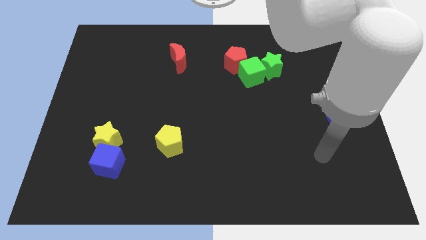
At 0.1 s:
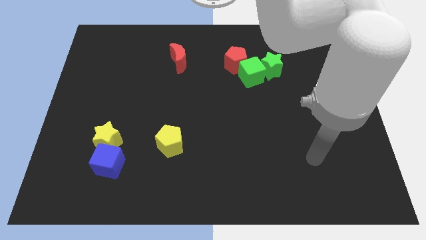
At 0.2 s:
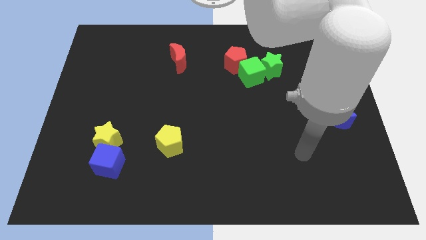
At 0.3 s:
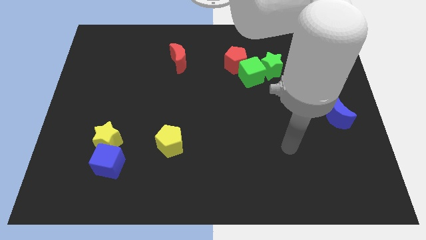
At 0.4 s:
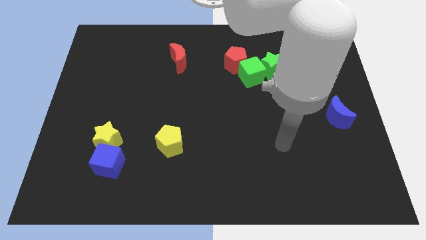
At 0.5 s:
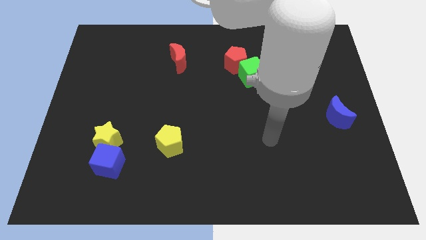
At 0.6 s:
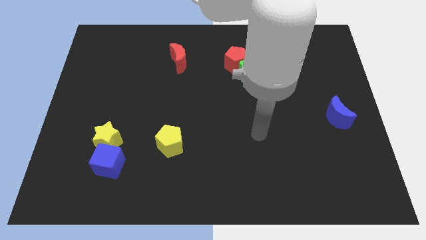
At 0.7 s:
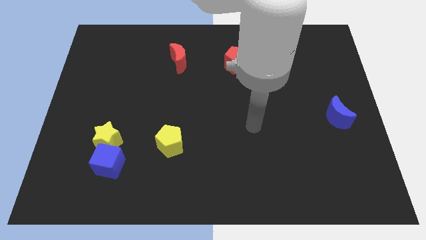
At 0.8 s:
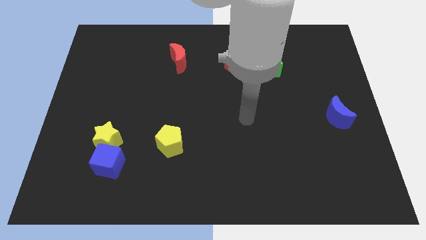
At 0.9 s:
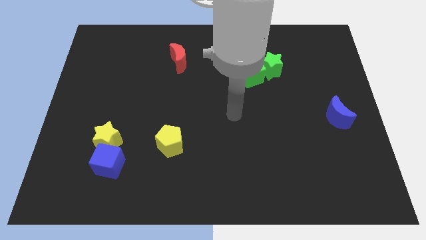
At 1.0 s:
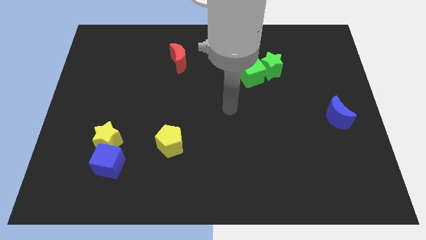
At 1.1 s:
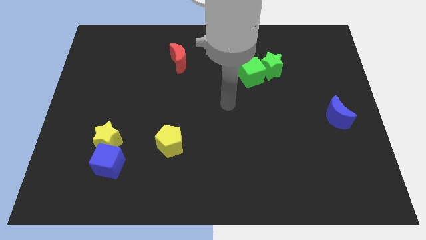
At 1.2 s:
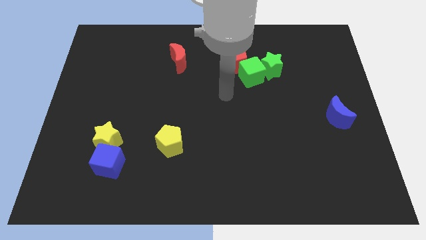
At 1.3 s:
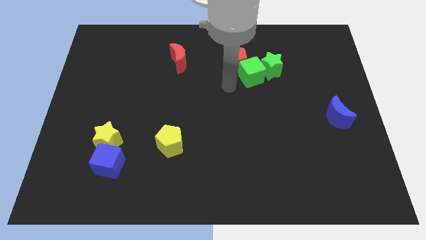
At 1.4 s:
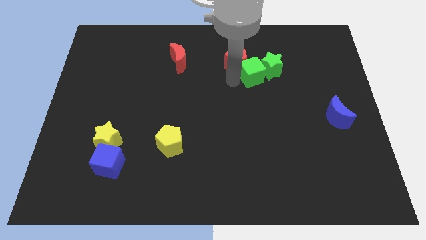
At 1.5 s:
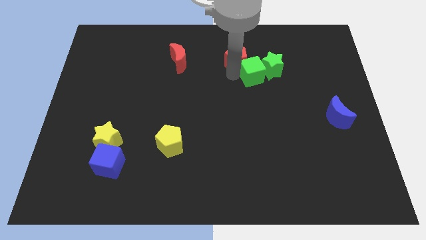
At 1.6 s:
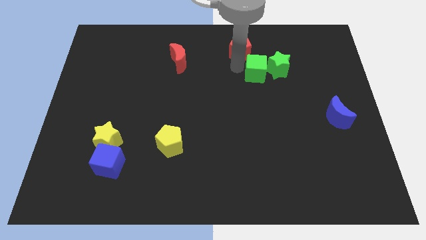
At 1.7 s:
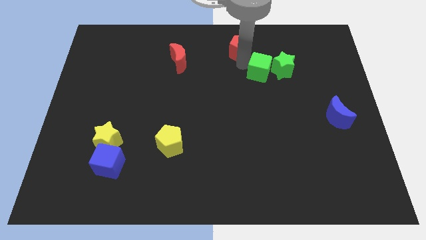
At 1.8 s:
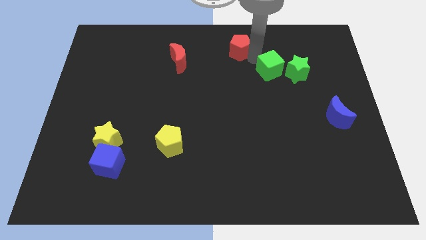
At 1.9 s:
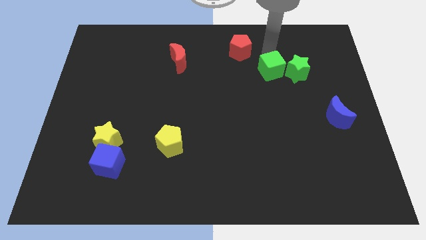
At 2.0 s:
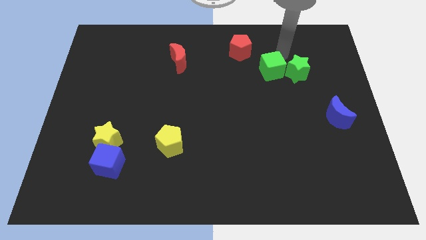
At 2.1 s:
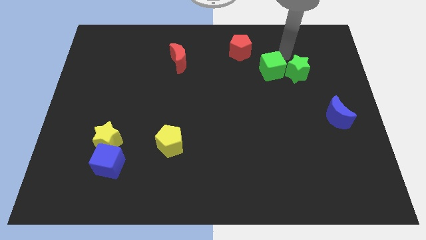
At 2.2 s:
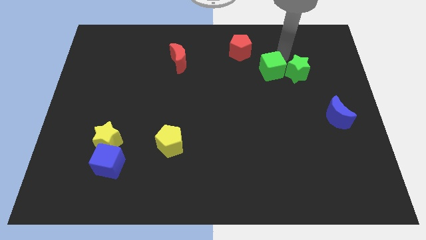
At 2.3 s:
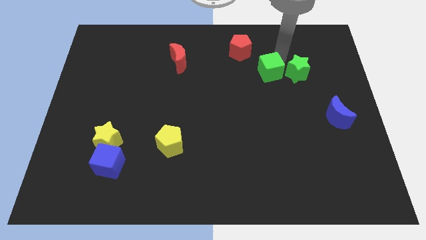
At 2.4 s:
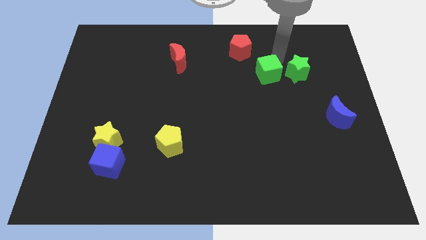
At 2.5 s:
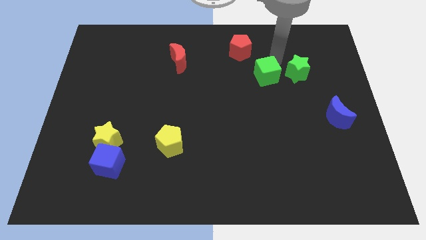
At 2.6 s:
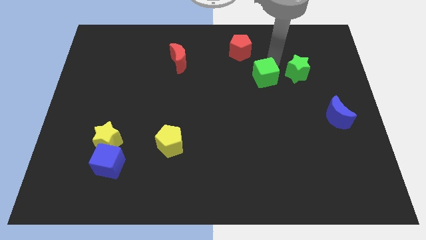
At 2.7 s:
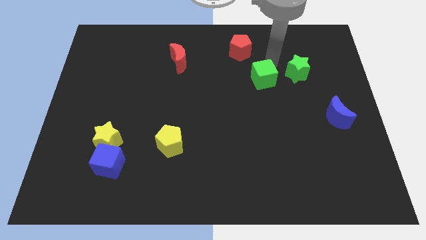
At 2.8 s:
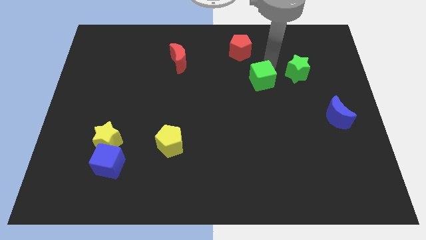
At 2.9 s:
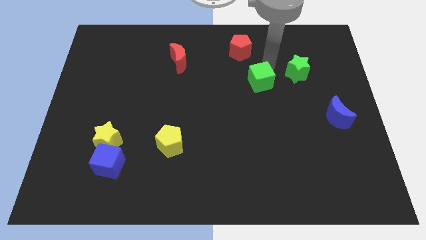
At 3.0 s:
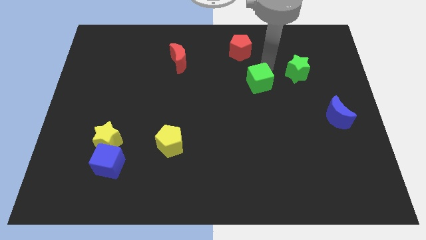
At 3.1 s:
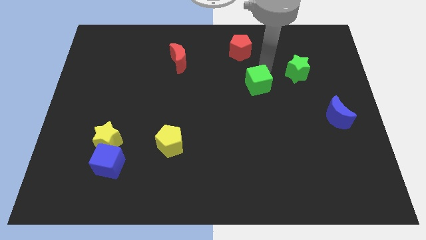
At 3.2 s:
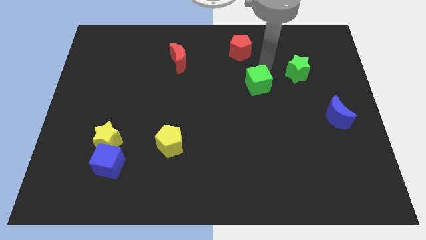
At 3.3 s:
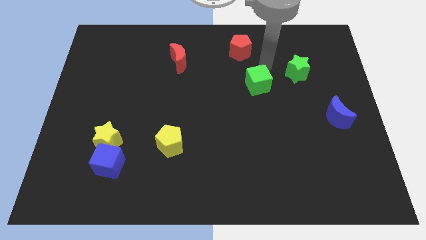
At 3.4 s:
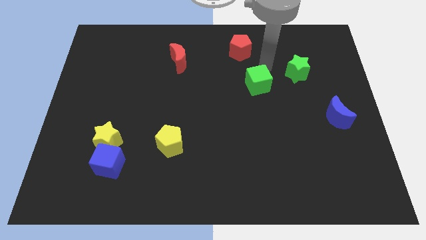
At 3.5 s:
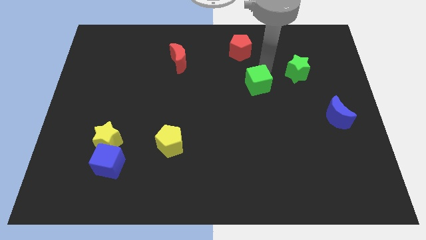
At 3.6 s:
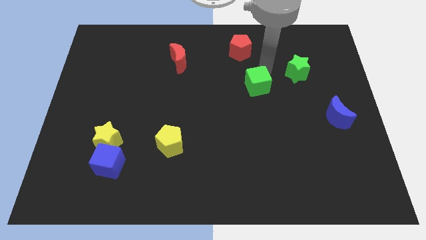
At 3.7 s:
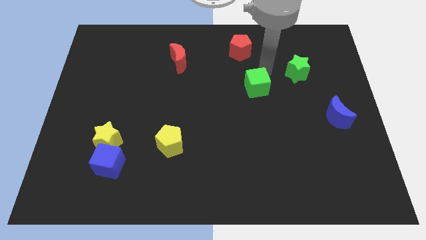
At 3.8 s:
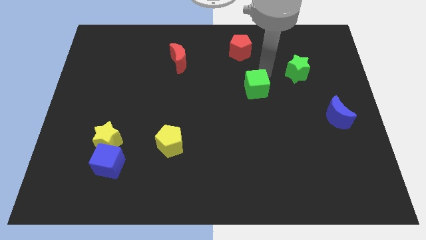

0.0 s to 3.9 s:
move the green cube away from the green star and red pentagon

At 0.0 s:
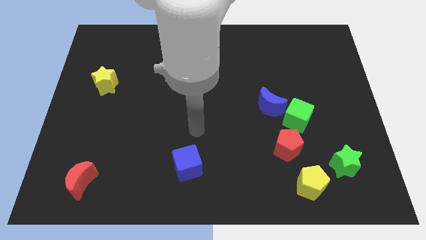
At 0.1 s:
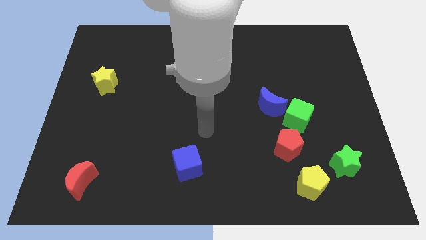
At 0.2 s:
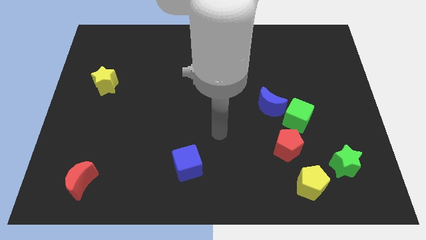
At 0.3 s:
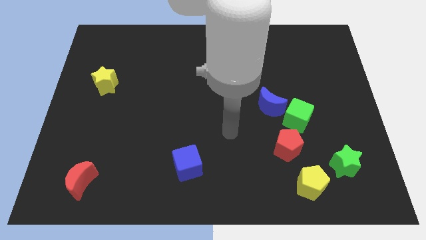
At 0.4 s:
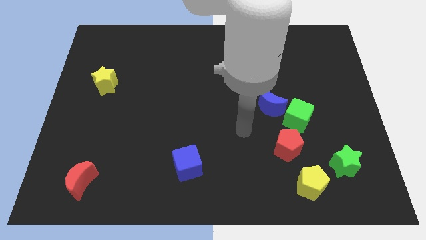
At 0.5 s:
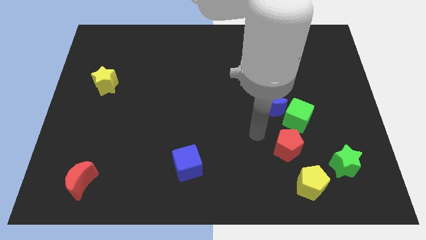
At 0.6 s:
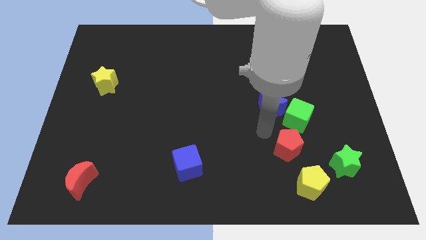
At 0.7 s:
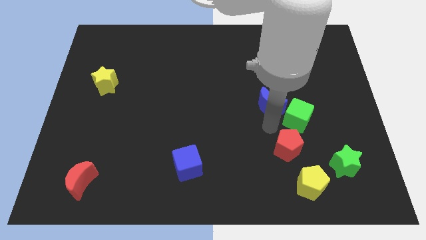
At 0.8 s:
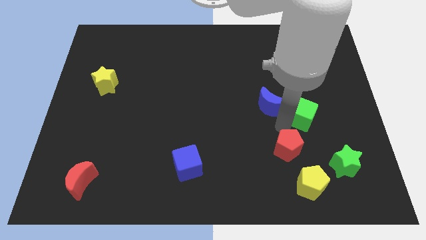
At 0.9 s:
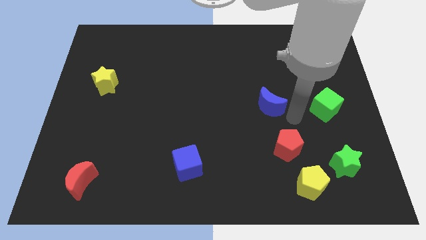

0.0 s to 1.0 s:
separate the blue moon from the green cube

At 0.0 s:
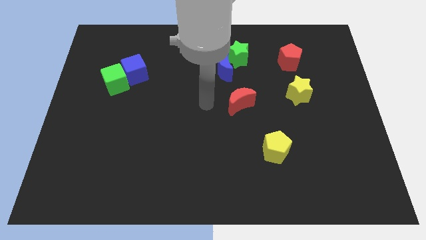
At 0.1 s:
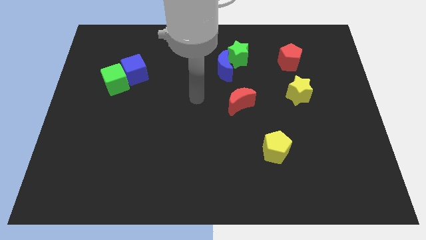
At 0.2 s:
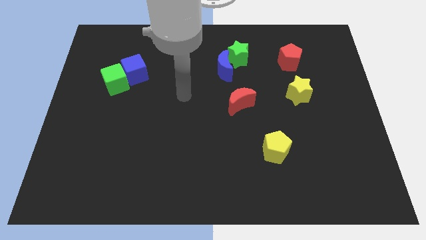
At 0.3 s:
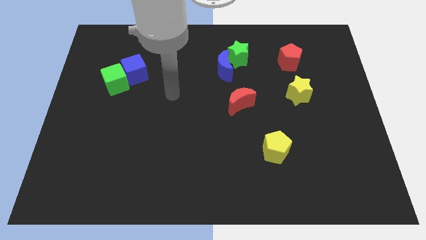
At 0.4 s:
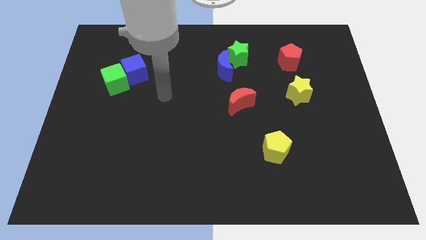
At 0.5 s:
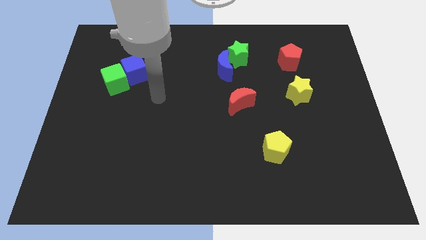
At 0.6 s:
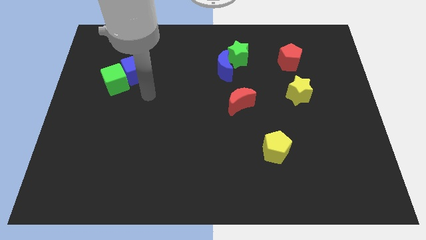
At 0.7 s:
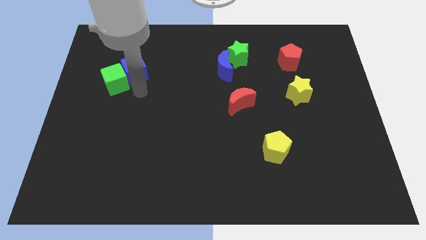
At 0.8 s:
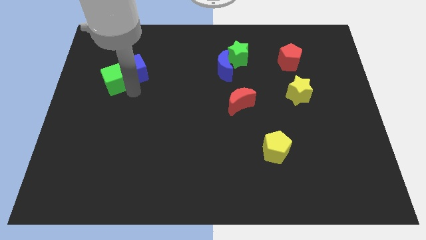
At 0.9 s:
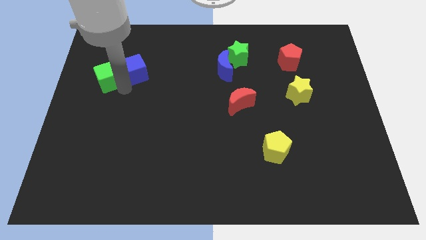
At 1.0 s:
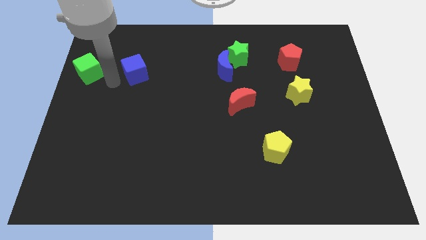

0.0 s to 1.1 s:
move the blue cube away from the green cube

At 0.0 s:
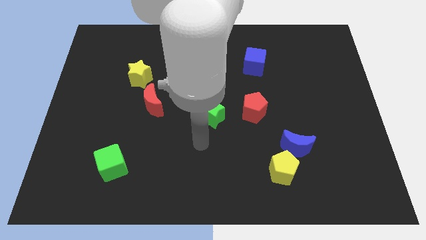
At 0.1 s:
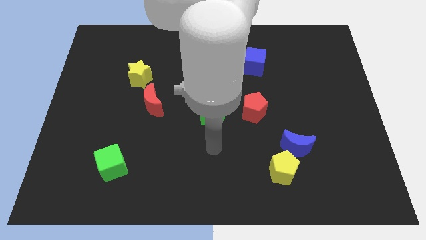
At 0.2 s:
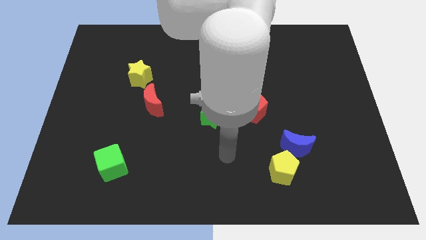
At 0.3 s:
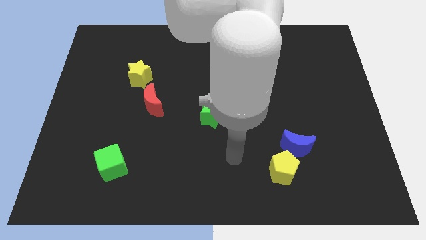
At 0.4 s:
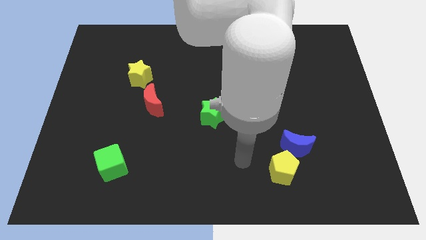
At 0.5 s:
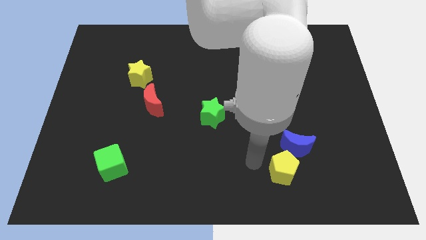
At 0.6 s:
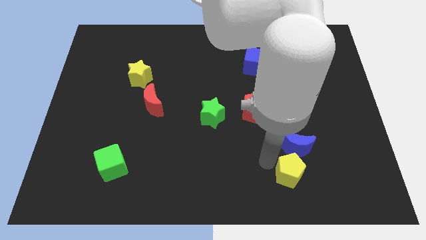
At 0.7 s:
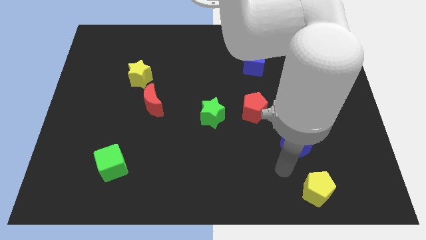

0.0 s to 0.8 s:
separate the blue moon from the yellow pentagon

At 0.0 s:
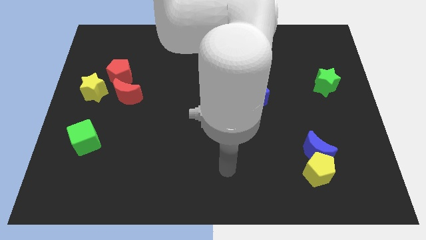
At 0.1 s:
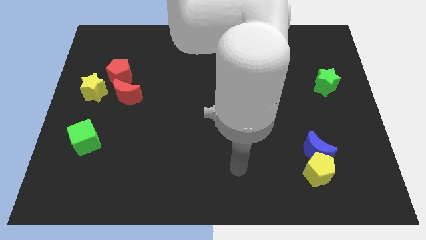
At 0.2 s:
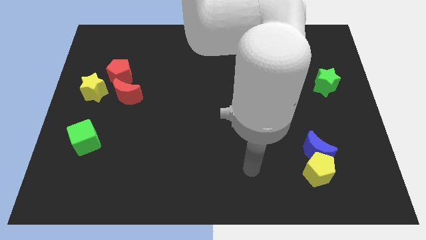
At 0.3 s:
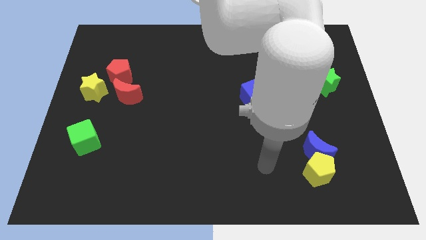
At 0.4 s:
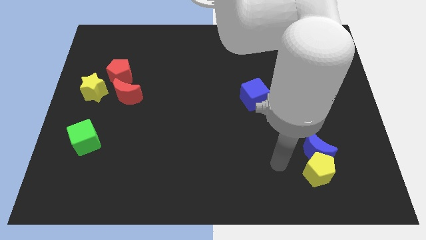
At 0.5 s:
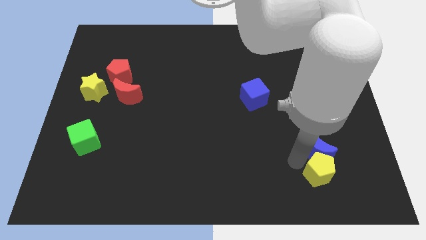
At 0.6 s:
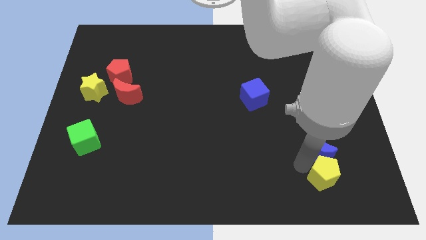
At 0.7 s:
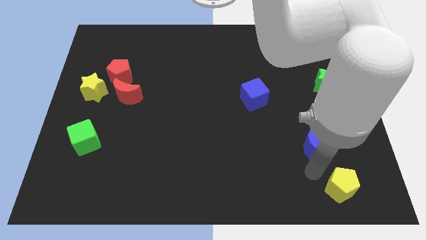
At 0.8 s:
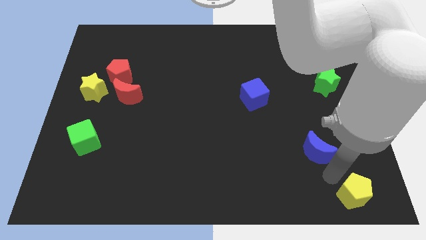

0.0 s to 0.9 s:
pull the blue moon apart from the yellow pentagon

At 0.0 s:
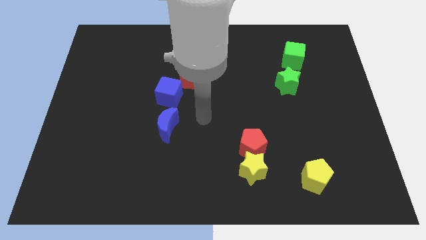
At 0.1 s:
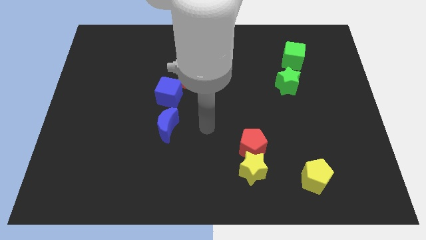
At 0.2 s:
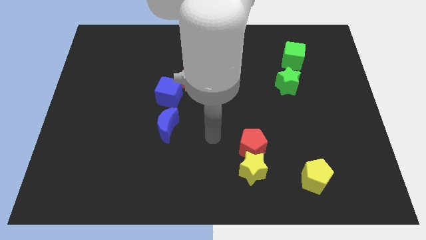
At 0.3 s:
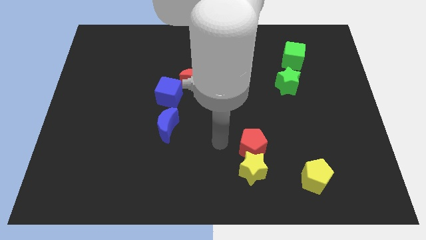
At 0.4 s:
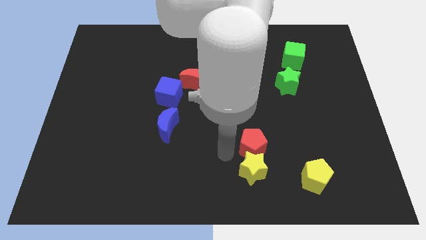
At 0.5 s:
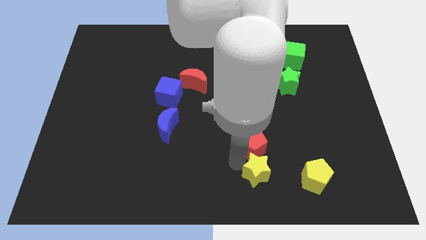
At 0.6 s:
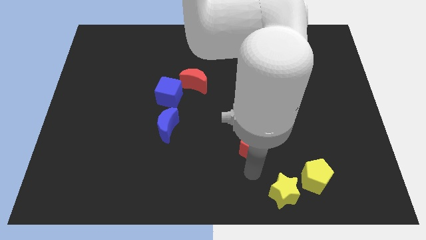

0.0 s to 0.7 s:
separate the red pentagon from the yellow star

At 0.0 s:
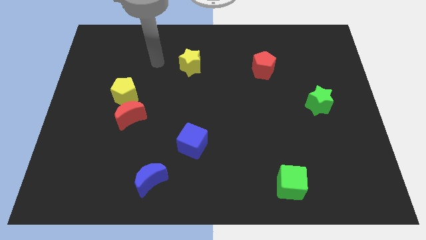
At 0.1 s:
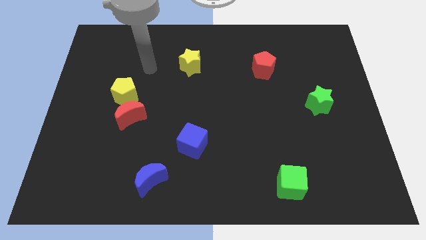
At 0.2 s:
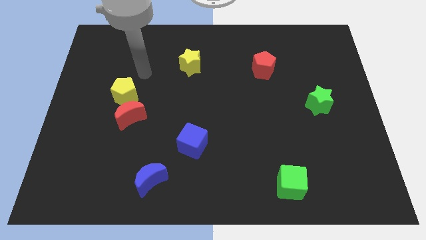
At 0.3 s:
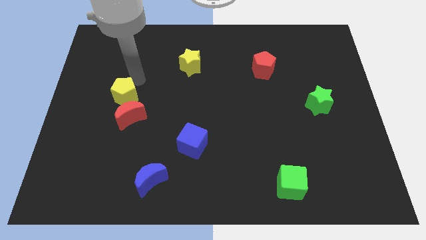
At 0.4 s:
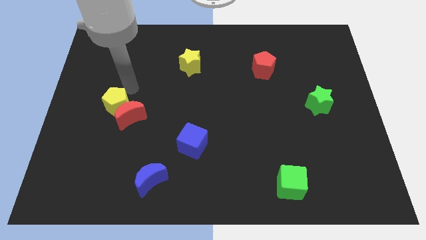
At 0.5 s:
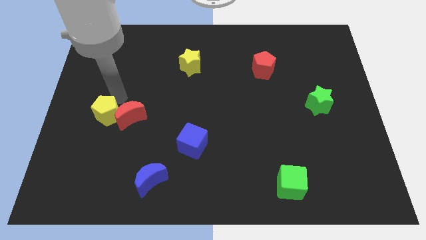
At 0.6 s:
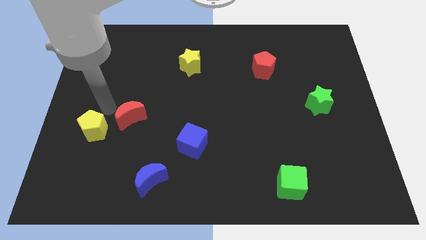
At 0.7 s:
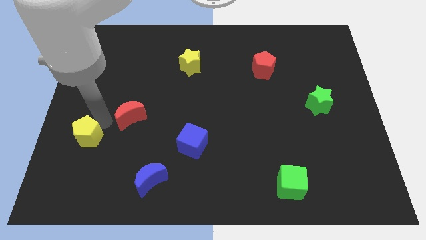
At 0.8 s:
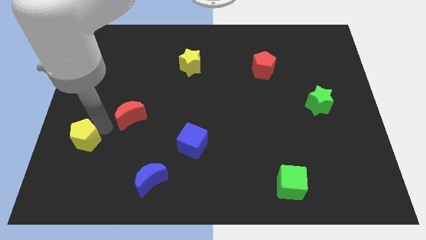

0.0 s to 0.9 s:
move the red moon away from the yellow pentagon
